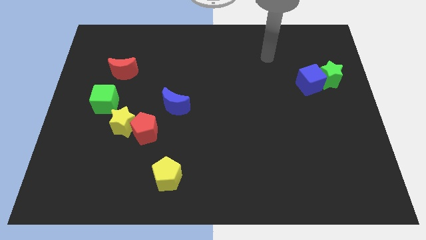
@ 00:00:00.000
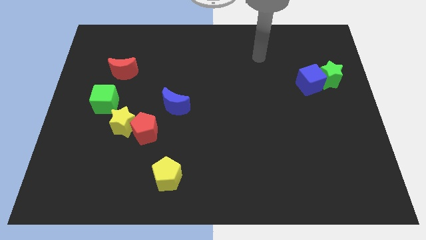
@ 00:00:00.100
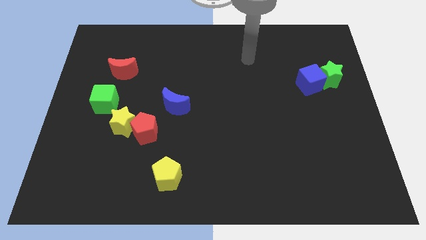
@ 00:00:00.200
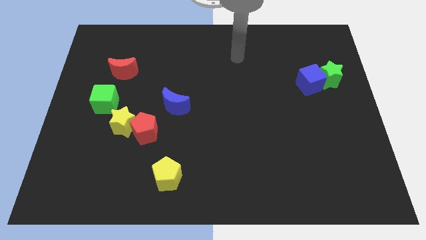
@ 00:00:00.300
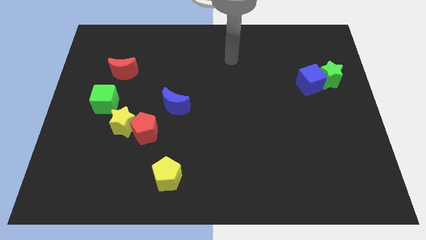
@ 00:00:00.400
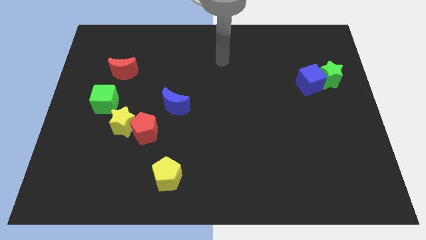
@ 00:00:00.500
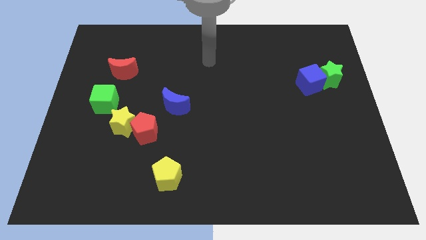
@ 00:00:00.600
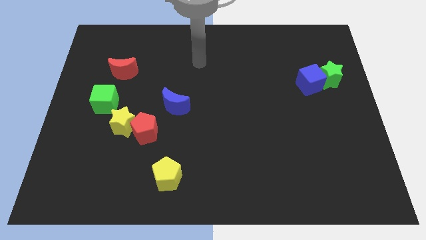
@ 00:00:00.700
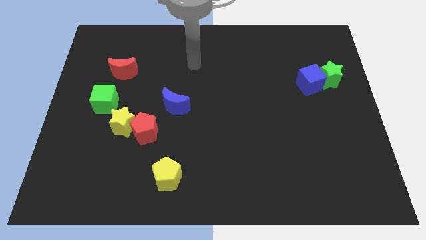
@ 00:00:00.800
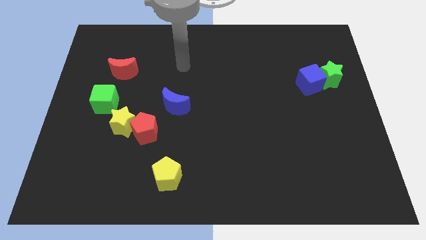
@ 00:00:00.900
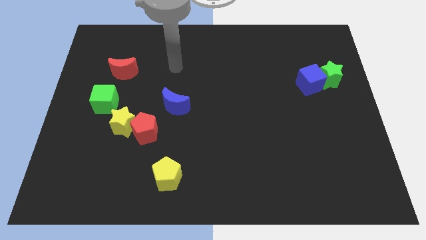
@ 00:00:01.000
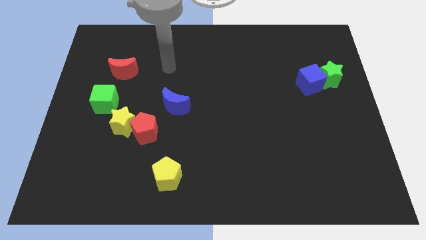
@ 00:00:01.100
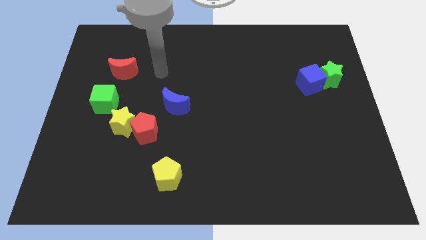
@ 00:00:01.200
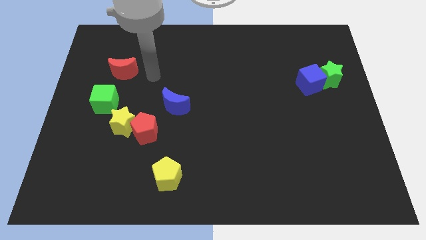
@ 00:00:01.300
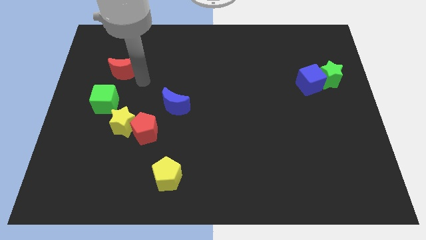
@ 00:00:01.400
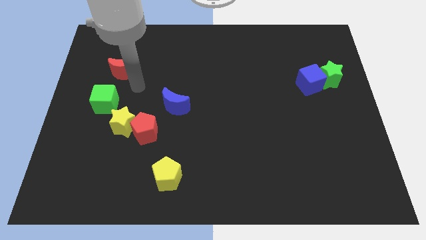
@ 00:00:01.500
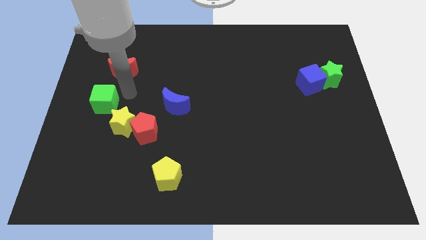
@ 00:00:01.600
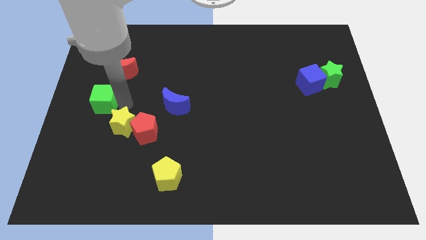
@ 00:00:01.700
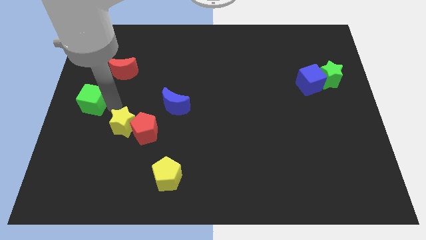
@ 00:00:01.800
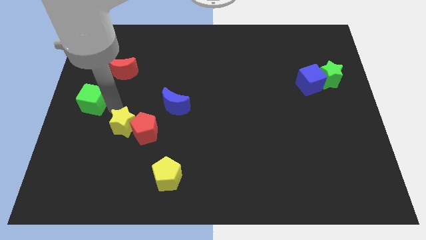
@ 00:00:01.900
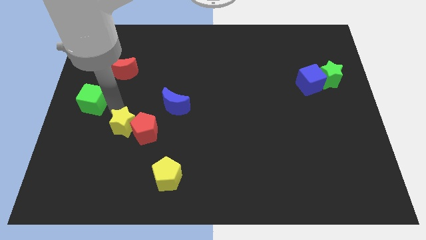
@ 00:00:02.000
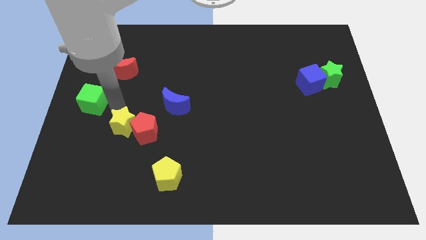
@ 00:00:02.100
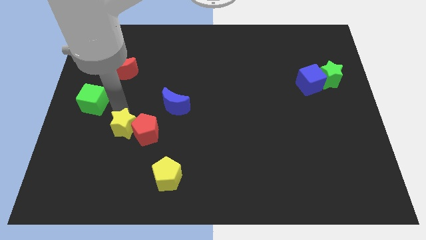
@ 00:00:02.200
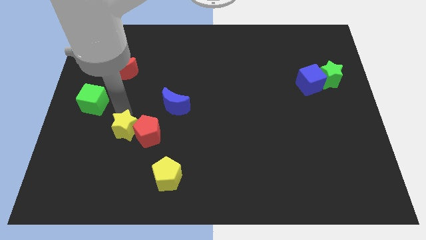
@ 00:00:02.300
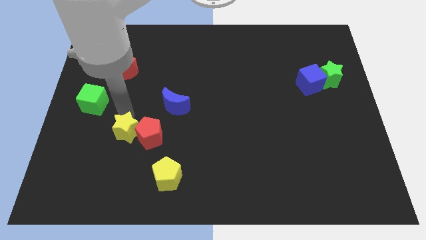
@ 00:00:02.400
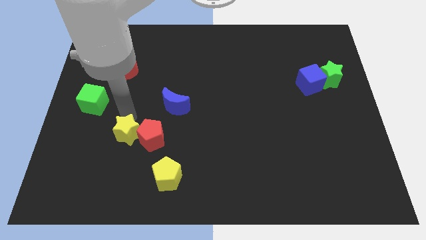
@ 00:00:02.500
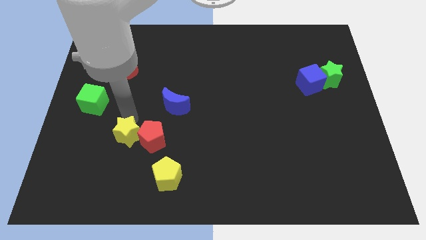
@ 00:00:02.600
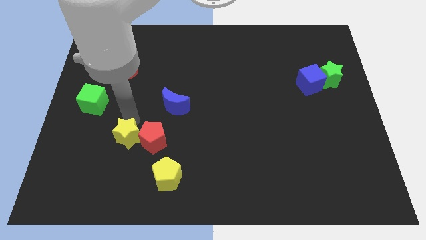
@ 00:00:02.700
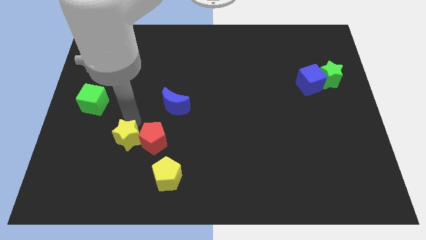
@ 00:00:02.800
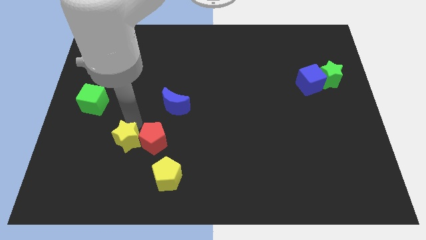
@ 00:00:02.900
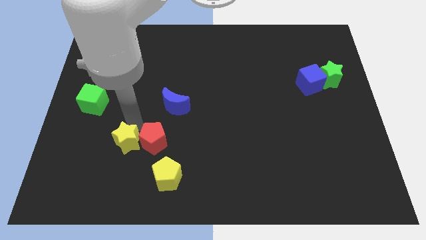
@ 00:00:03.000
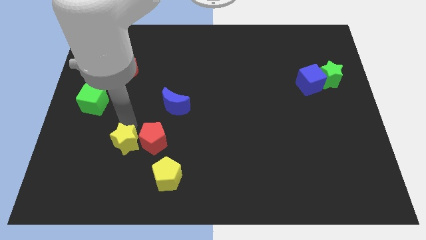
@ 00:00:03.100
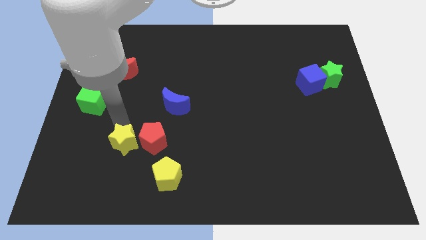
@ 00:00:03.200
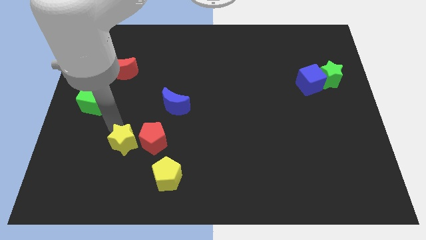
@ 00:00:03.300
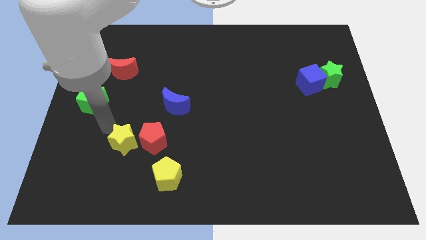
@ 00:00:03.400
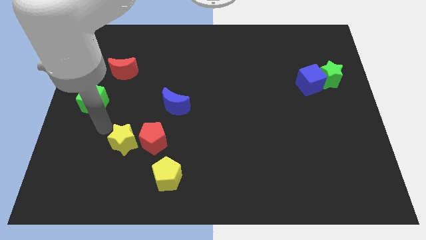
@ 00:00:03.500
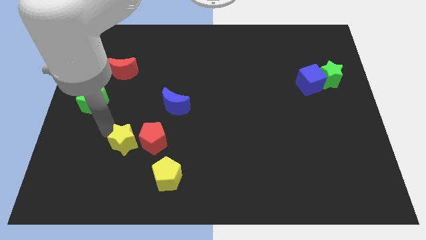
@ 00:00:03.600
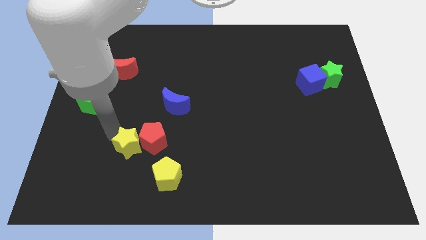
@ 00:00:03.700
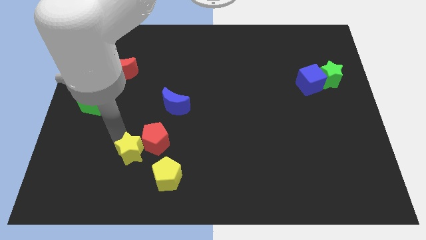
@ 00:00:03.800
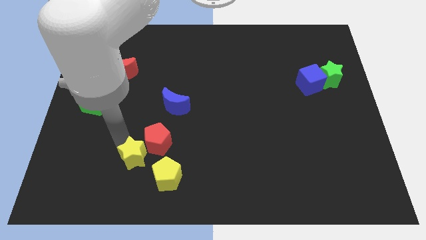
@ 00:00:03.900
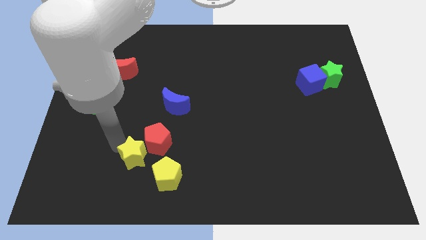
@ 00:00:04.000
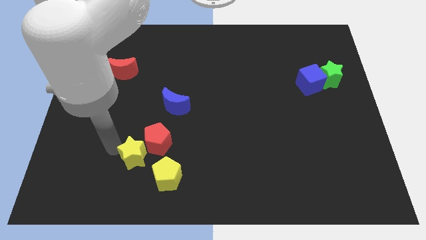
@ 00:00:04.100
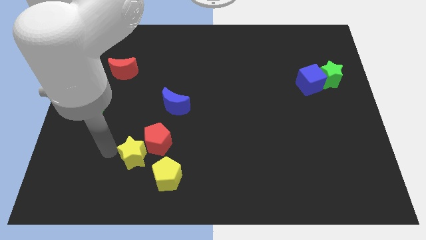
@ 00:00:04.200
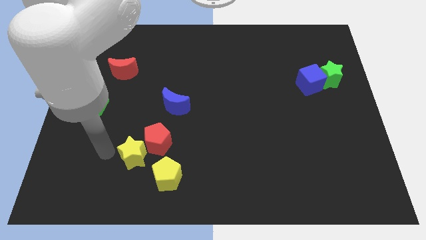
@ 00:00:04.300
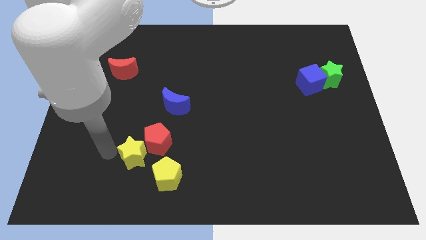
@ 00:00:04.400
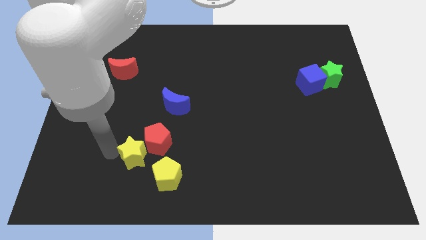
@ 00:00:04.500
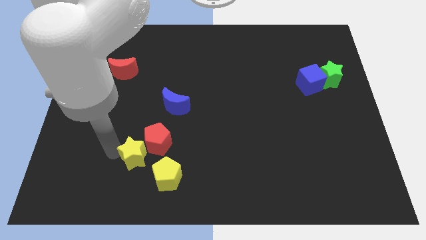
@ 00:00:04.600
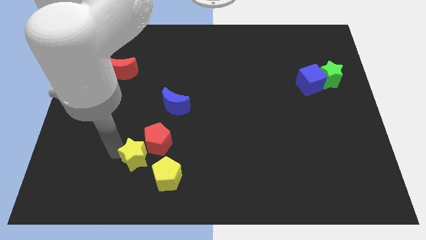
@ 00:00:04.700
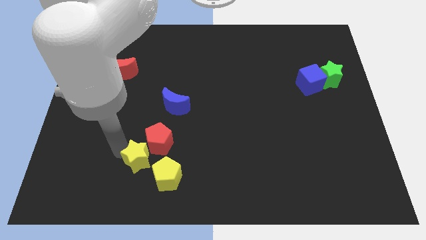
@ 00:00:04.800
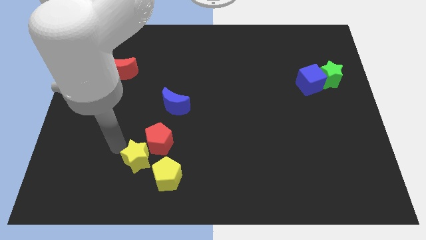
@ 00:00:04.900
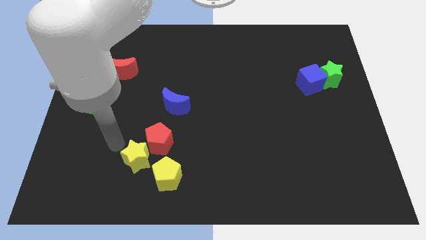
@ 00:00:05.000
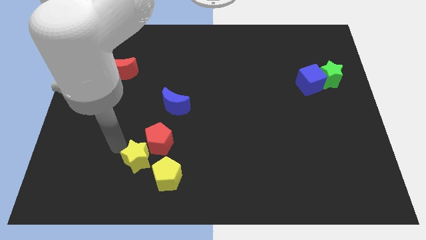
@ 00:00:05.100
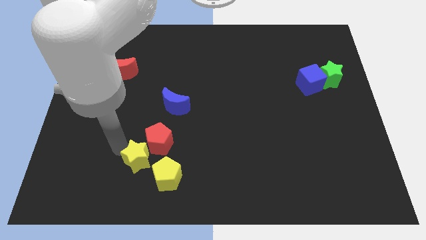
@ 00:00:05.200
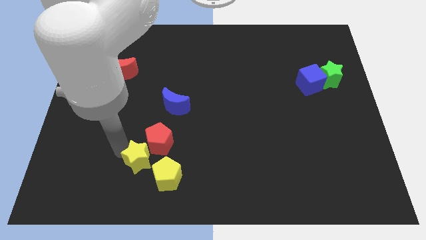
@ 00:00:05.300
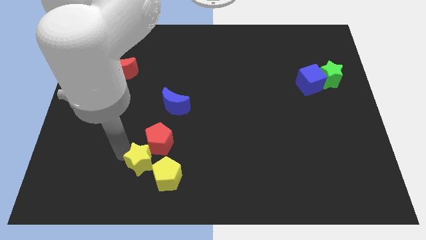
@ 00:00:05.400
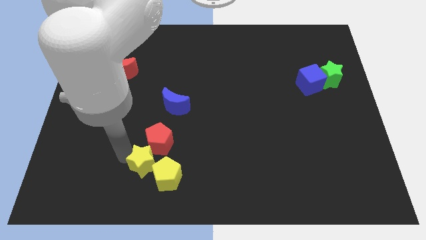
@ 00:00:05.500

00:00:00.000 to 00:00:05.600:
put the yellow star next to the yellow pentagon

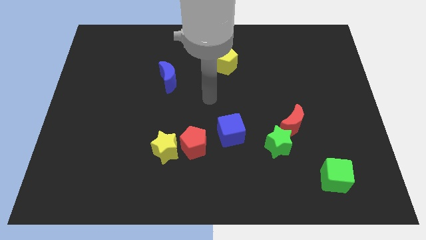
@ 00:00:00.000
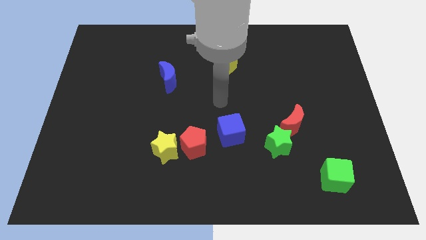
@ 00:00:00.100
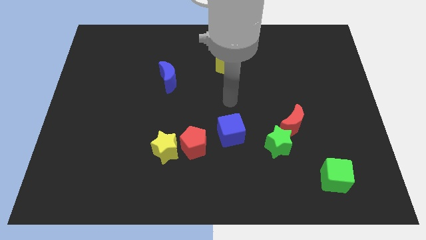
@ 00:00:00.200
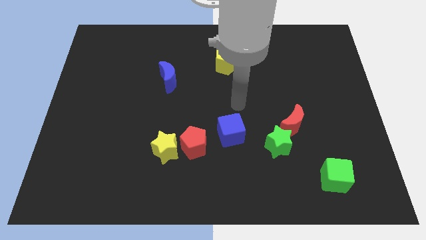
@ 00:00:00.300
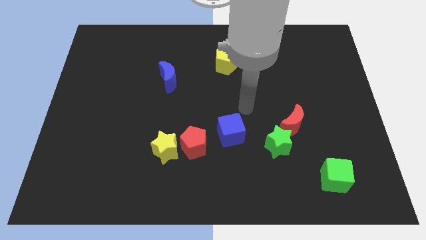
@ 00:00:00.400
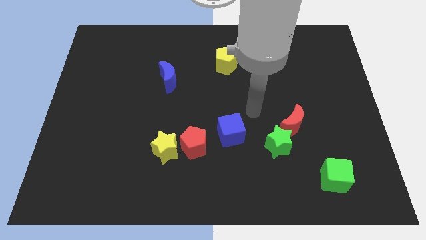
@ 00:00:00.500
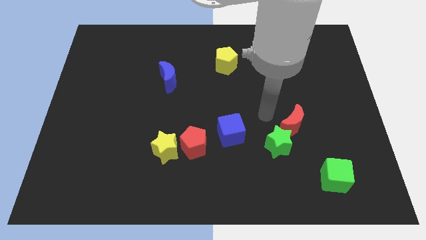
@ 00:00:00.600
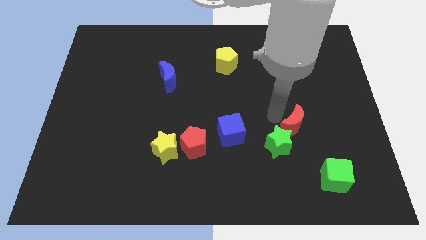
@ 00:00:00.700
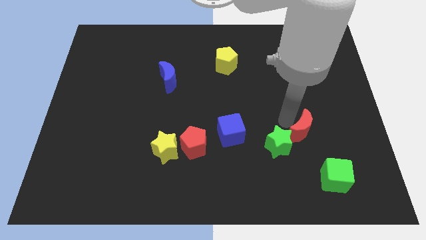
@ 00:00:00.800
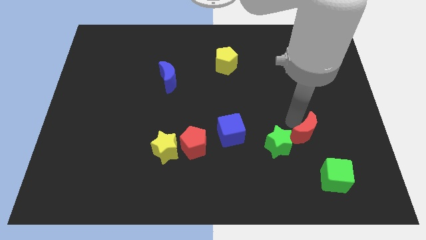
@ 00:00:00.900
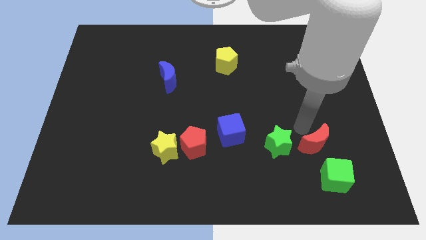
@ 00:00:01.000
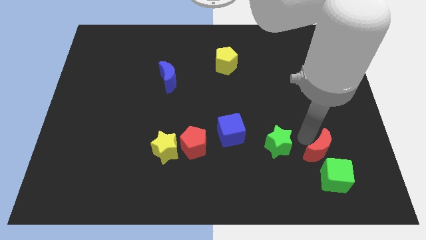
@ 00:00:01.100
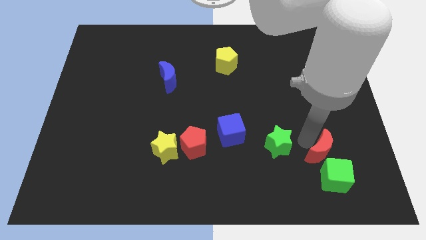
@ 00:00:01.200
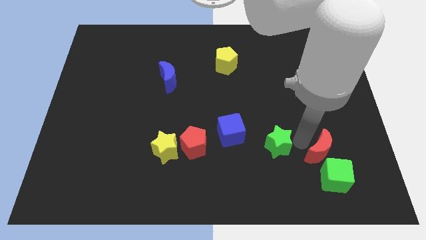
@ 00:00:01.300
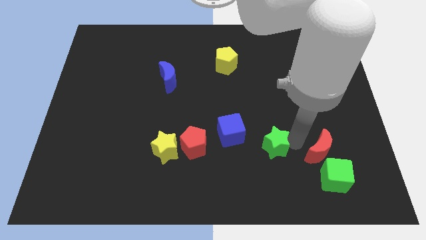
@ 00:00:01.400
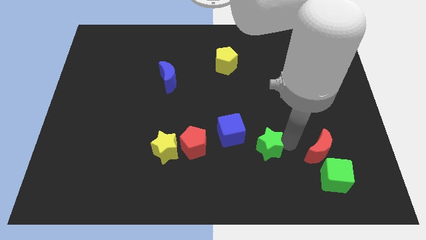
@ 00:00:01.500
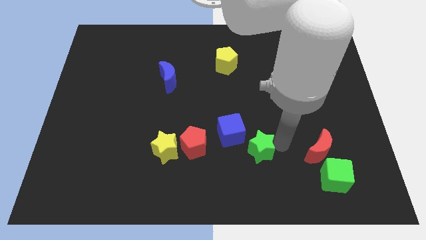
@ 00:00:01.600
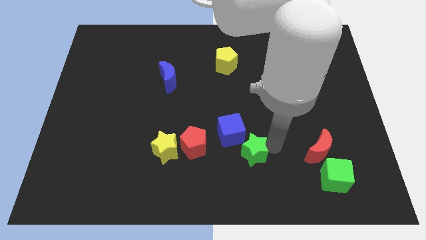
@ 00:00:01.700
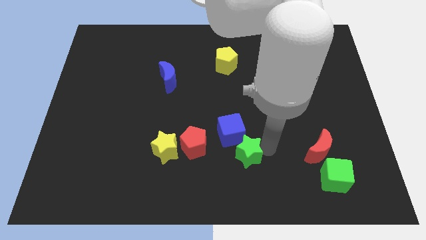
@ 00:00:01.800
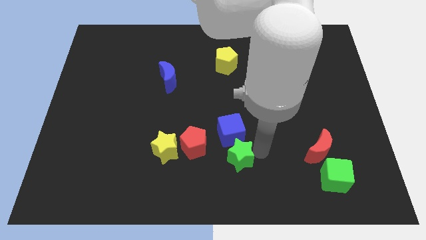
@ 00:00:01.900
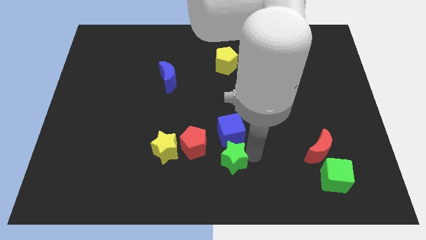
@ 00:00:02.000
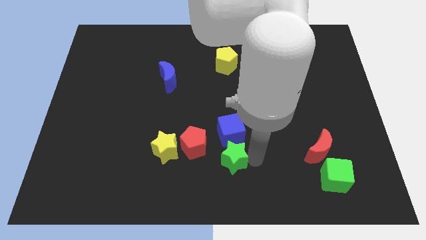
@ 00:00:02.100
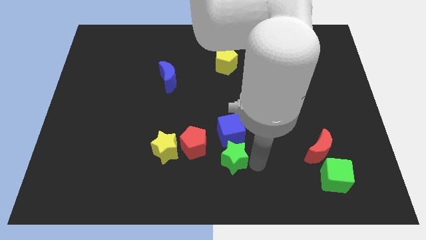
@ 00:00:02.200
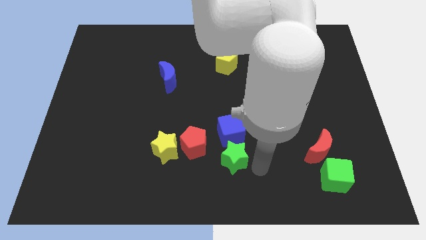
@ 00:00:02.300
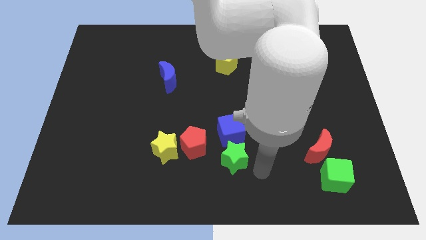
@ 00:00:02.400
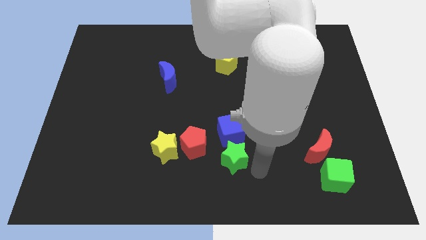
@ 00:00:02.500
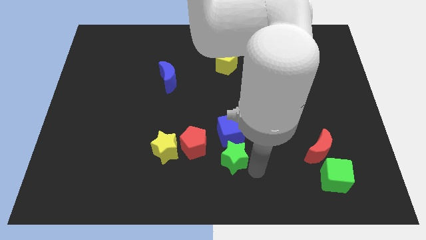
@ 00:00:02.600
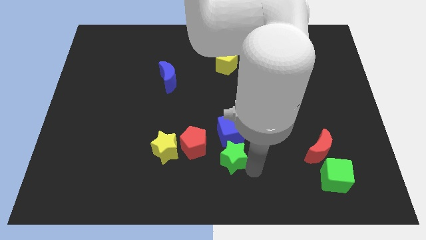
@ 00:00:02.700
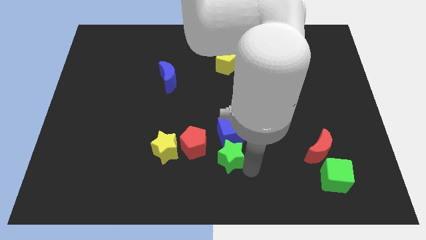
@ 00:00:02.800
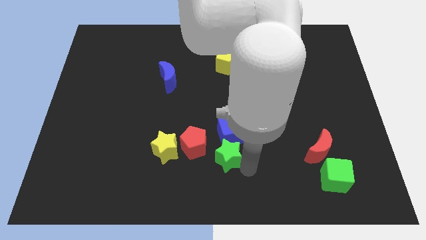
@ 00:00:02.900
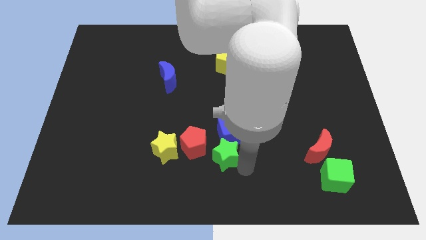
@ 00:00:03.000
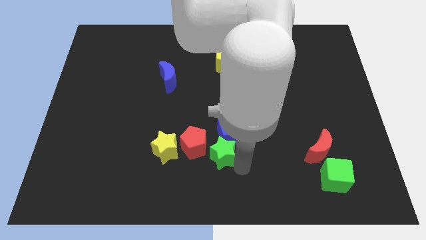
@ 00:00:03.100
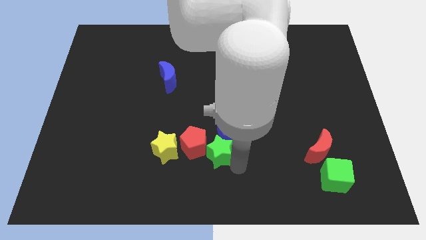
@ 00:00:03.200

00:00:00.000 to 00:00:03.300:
slide the green star to the red pentagon
